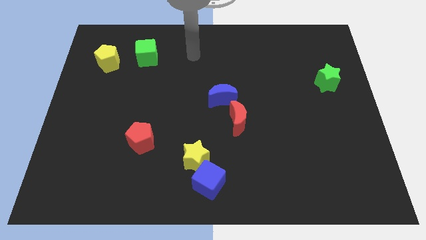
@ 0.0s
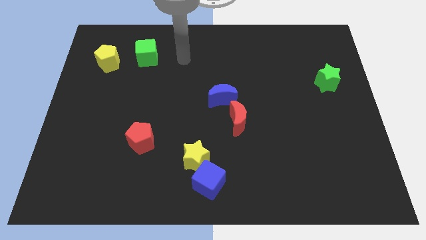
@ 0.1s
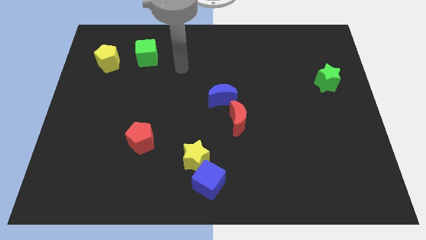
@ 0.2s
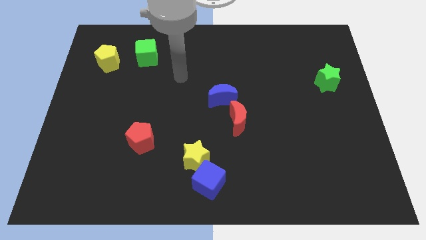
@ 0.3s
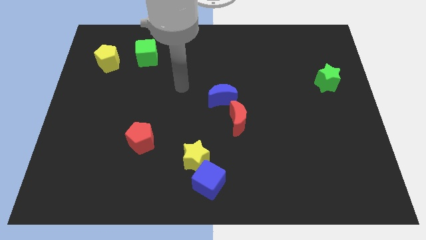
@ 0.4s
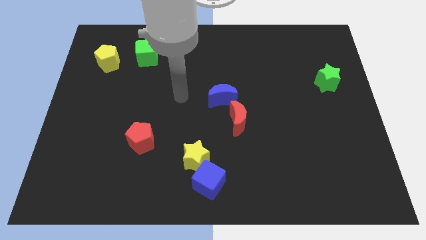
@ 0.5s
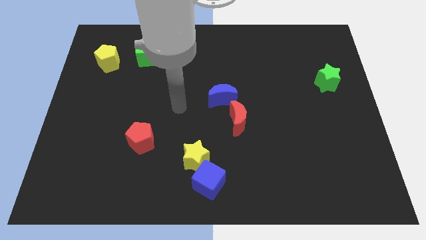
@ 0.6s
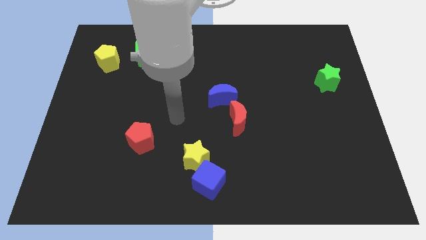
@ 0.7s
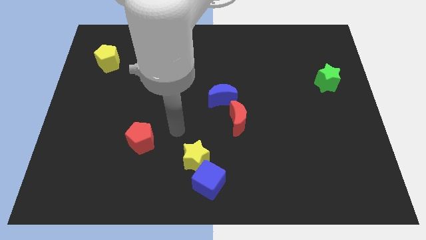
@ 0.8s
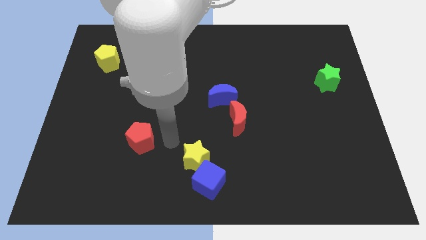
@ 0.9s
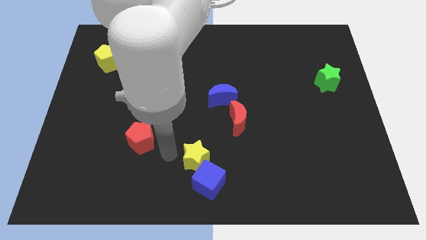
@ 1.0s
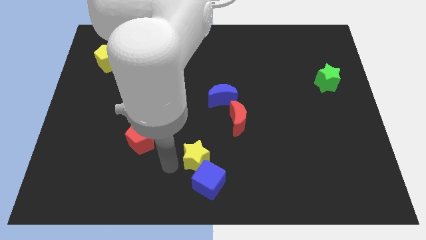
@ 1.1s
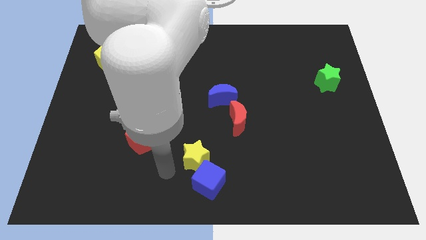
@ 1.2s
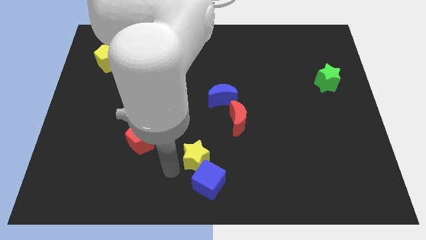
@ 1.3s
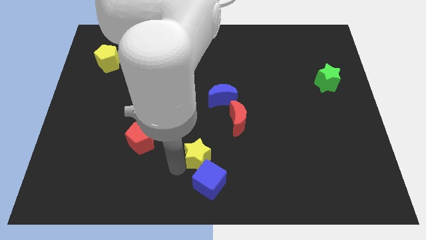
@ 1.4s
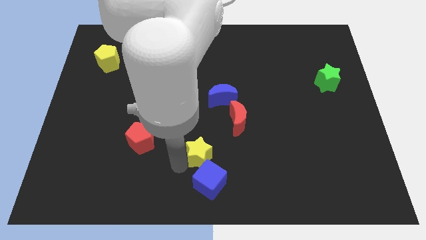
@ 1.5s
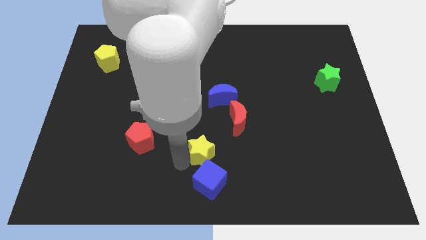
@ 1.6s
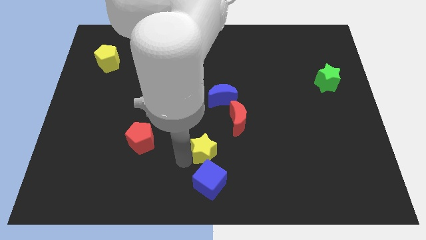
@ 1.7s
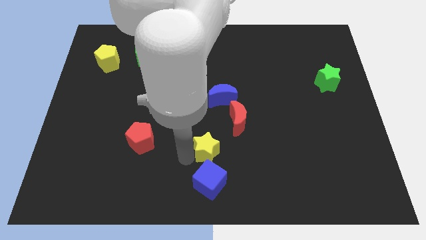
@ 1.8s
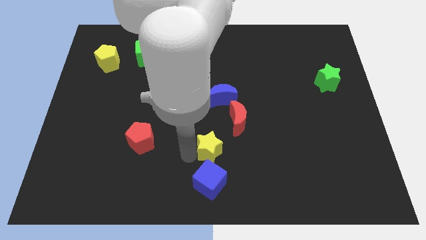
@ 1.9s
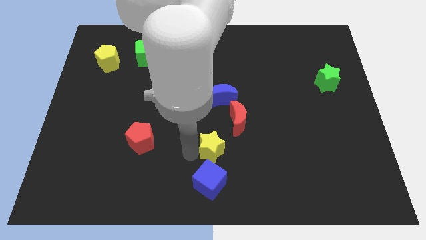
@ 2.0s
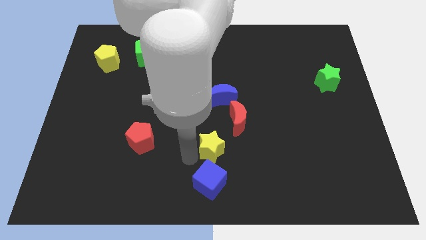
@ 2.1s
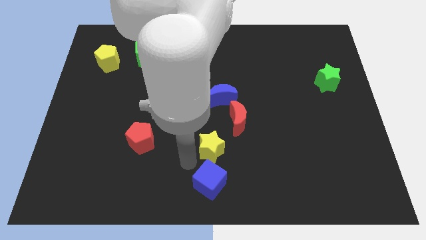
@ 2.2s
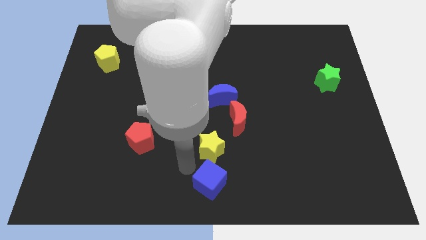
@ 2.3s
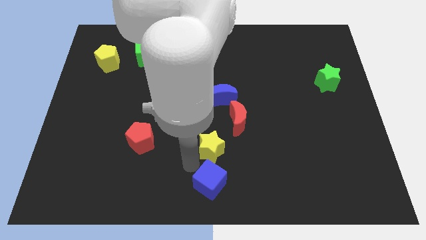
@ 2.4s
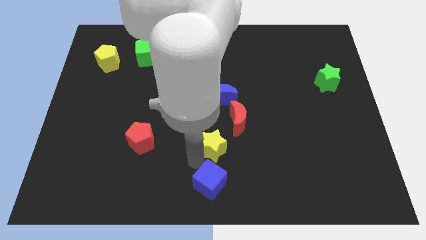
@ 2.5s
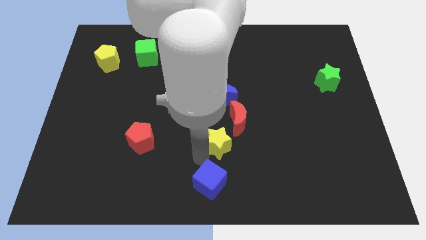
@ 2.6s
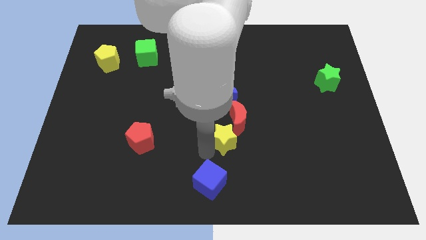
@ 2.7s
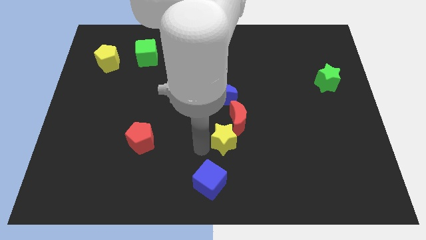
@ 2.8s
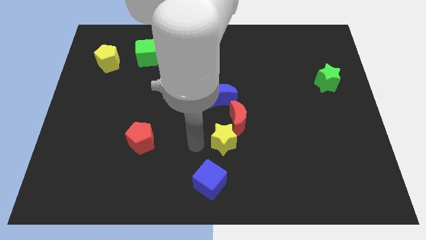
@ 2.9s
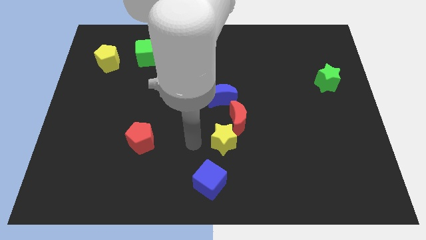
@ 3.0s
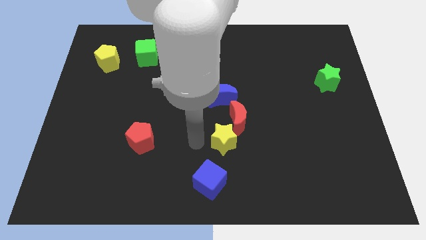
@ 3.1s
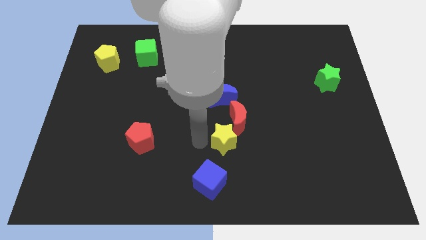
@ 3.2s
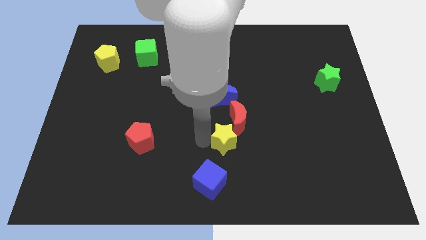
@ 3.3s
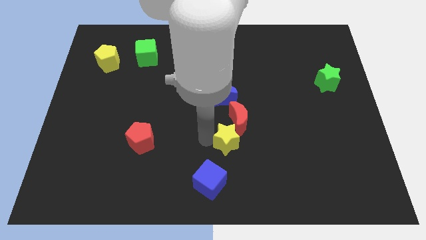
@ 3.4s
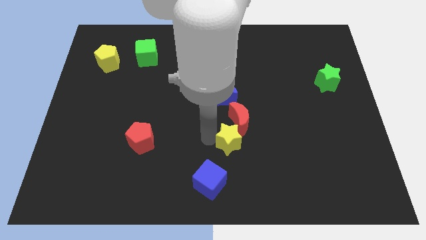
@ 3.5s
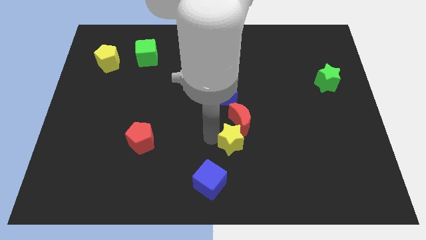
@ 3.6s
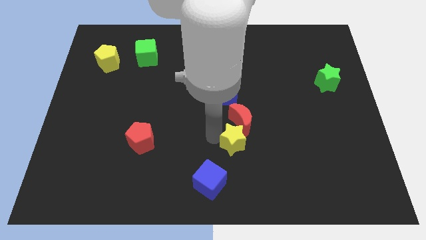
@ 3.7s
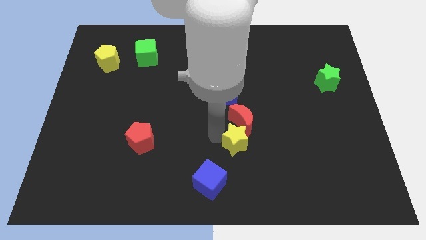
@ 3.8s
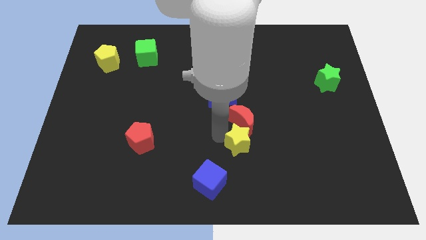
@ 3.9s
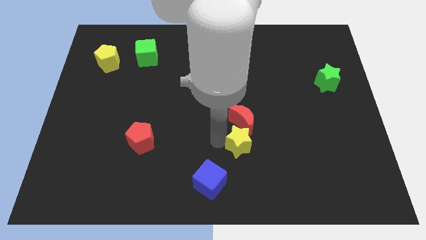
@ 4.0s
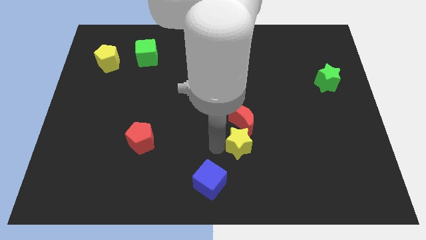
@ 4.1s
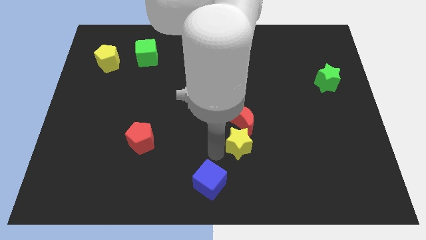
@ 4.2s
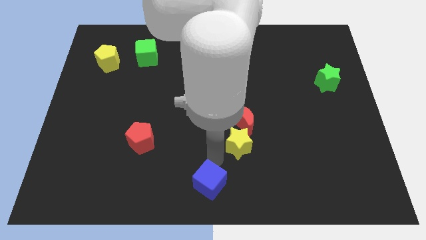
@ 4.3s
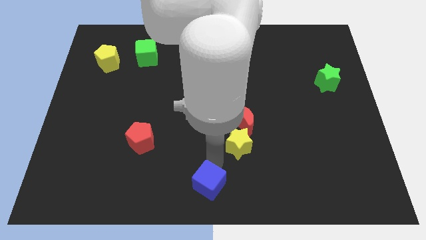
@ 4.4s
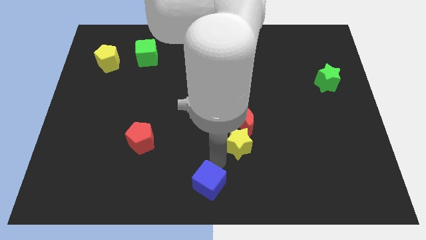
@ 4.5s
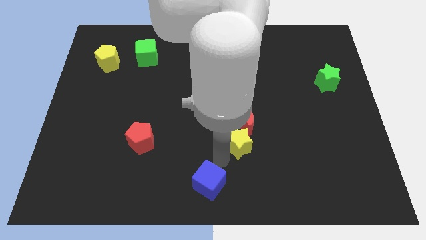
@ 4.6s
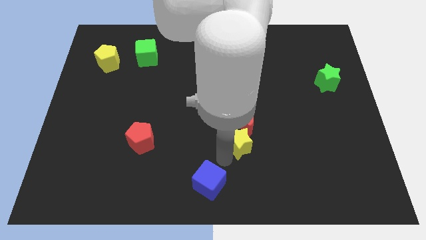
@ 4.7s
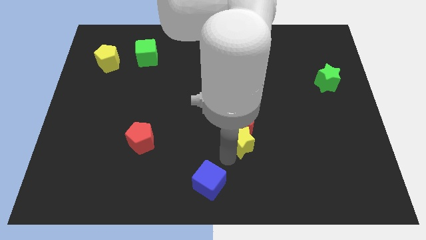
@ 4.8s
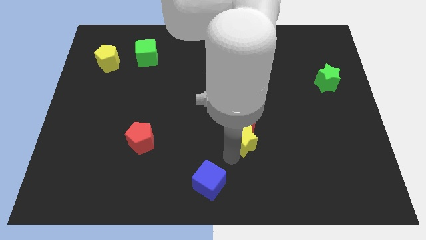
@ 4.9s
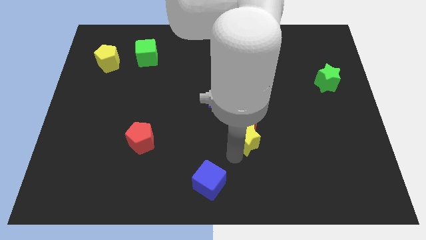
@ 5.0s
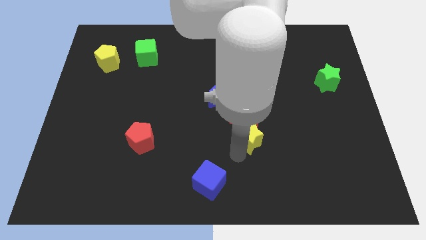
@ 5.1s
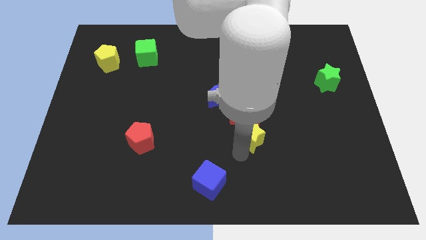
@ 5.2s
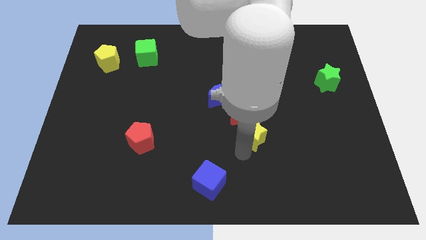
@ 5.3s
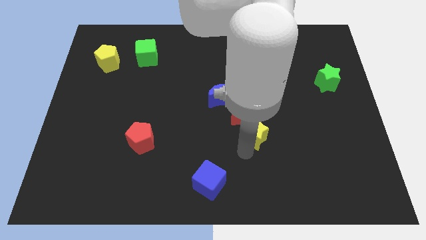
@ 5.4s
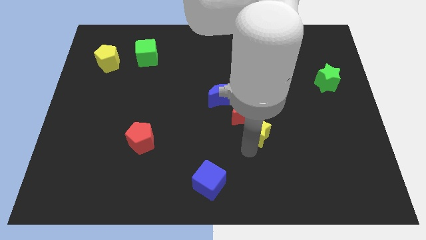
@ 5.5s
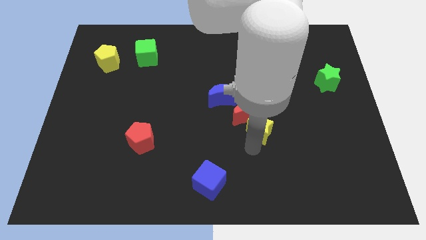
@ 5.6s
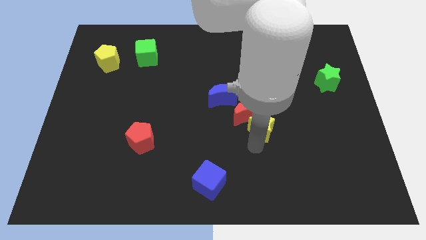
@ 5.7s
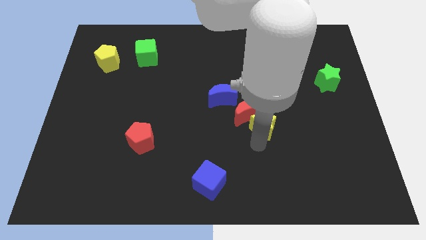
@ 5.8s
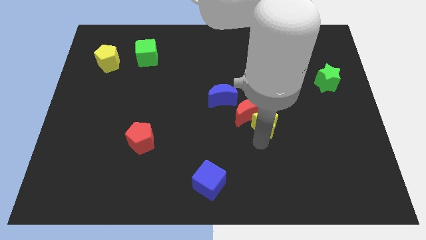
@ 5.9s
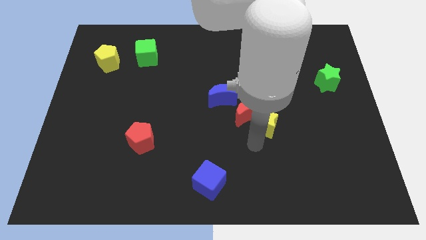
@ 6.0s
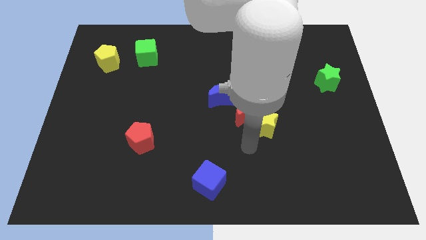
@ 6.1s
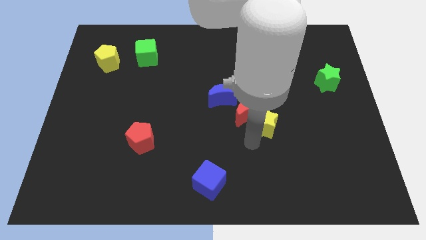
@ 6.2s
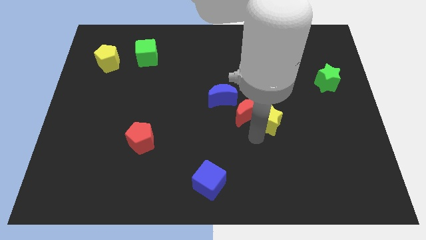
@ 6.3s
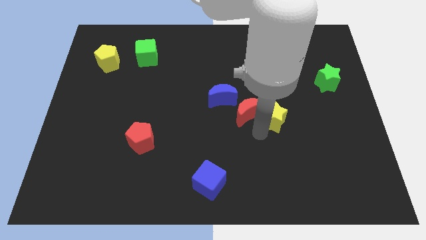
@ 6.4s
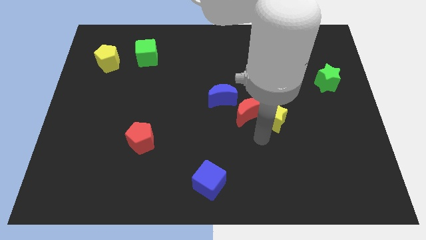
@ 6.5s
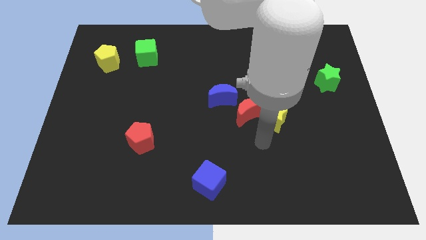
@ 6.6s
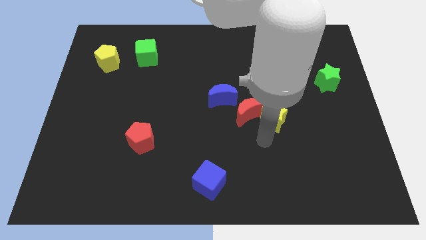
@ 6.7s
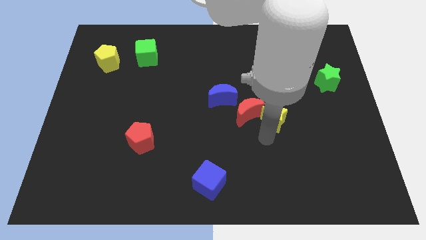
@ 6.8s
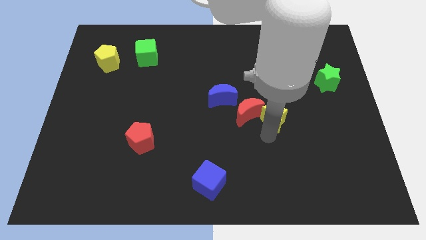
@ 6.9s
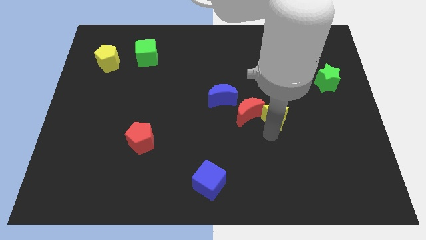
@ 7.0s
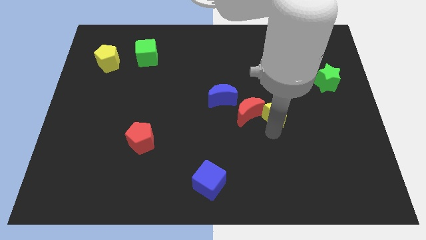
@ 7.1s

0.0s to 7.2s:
move the yellow star diagonally upwards and to the right

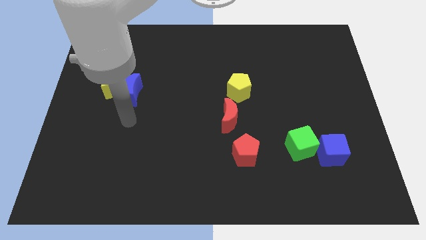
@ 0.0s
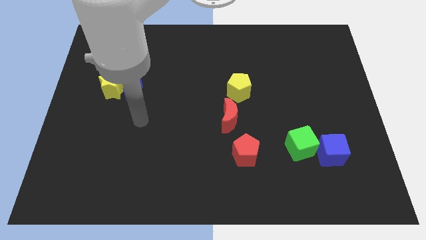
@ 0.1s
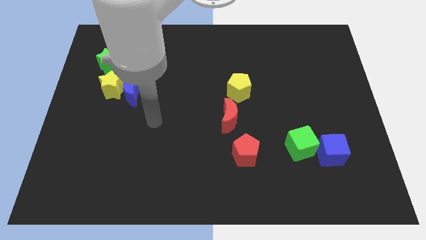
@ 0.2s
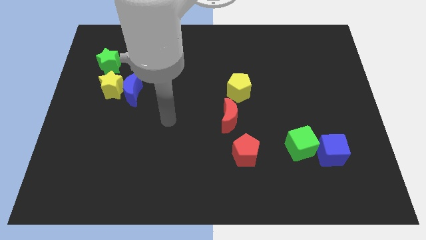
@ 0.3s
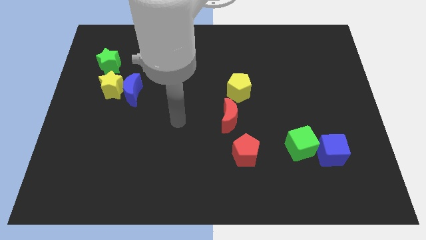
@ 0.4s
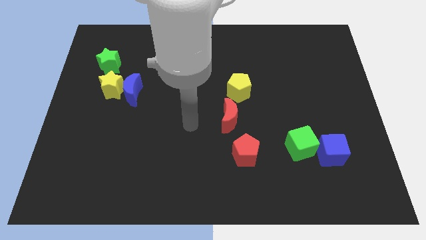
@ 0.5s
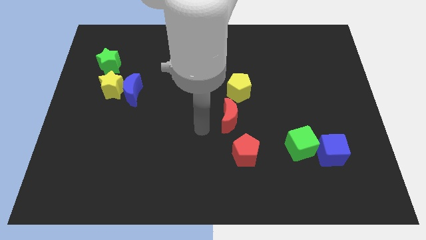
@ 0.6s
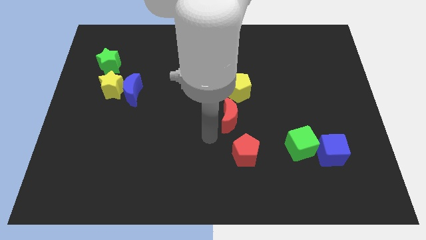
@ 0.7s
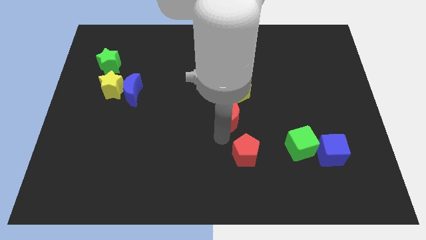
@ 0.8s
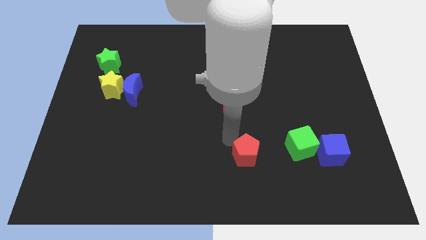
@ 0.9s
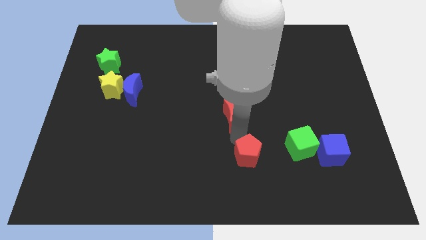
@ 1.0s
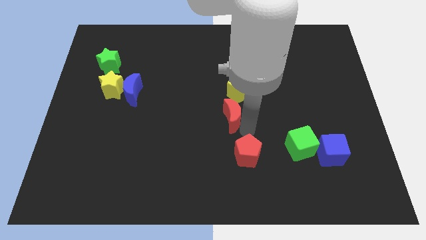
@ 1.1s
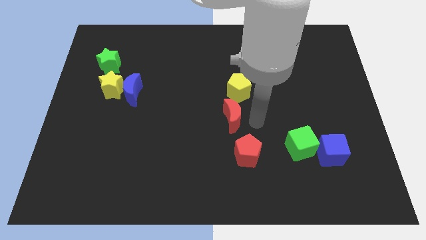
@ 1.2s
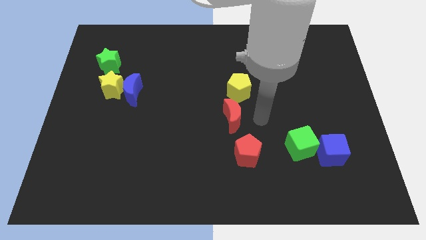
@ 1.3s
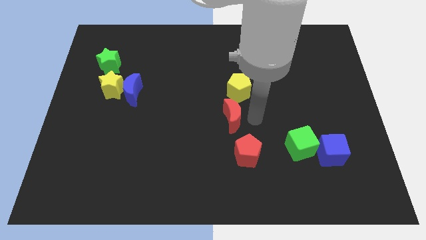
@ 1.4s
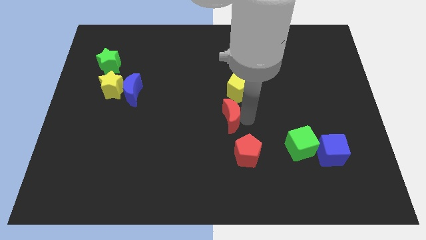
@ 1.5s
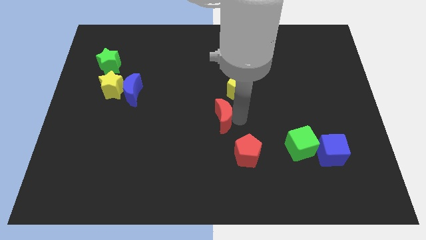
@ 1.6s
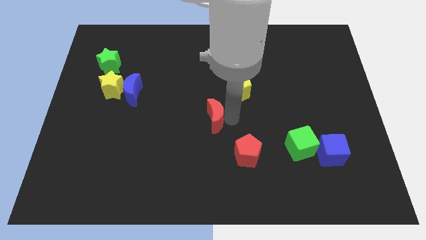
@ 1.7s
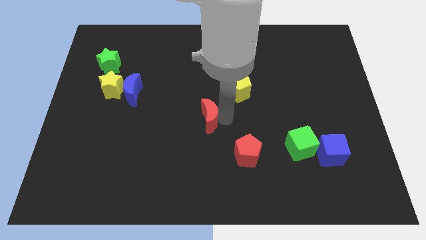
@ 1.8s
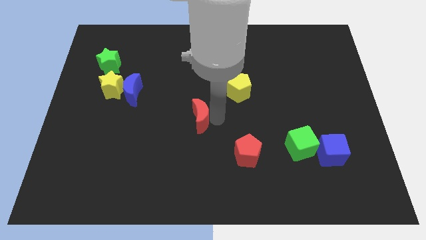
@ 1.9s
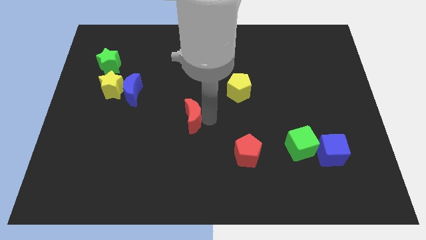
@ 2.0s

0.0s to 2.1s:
slightly push the red moon to the left
